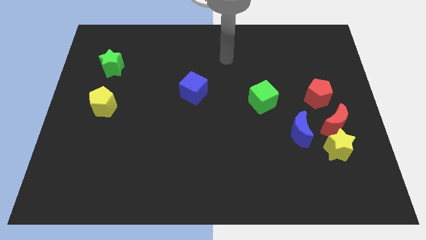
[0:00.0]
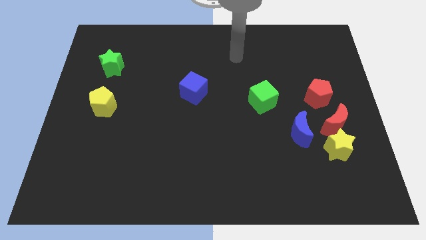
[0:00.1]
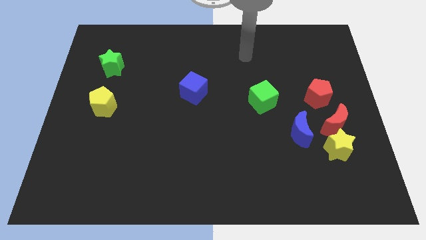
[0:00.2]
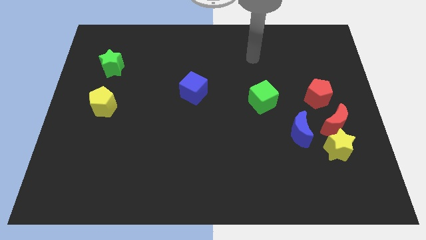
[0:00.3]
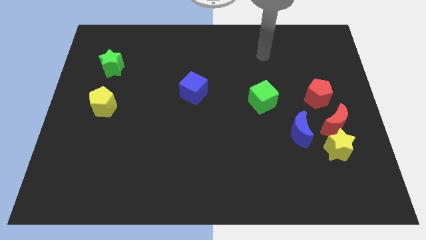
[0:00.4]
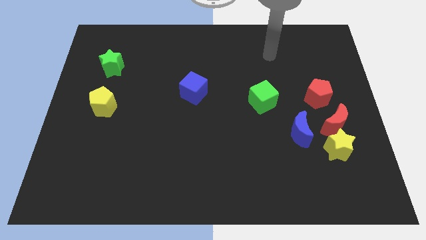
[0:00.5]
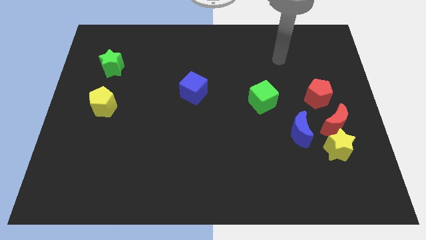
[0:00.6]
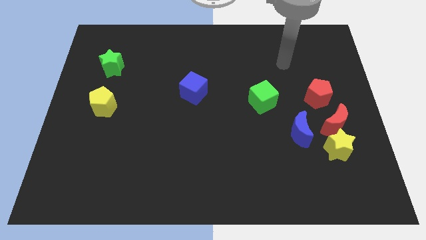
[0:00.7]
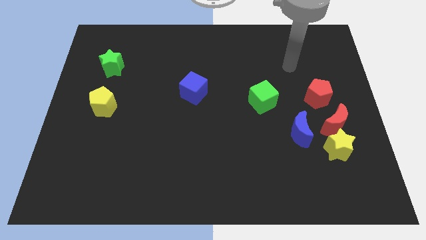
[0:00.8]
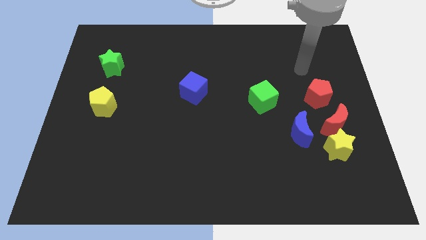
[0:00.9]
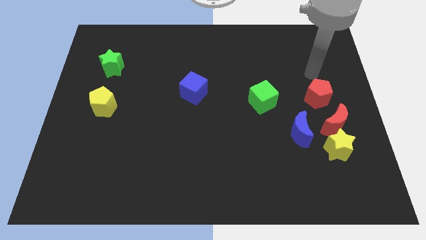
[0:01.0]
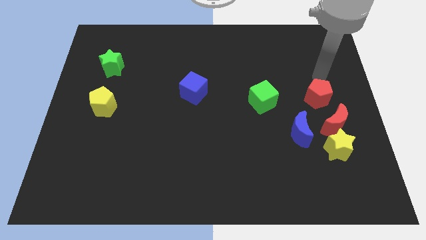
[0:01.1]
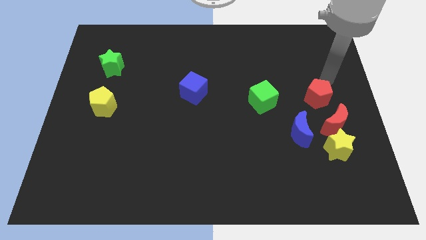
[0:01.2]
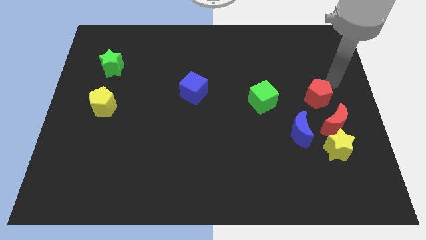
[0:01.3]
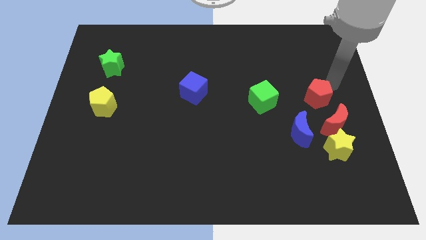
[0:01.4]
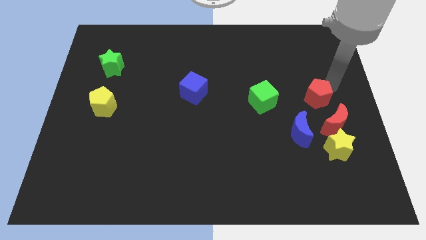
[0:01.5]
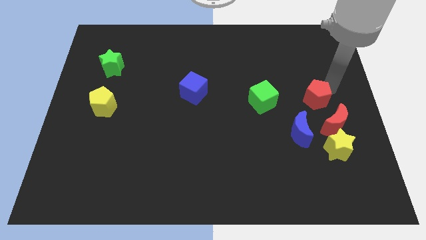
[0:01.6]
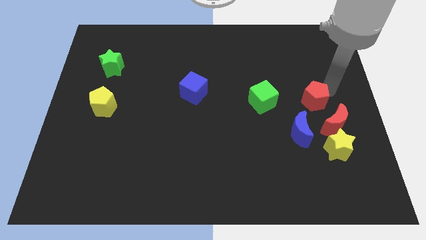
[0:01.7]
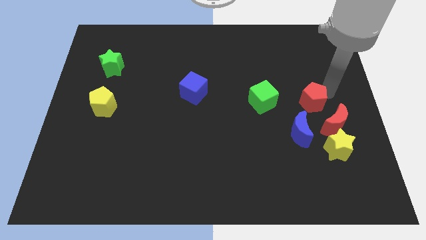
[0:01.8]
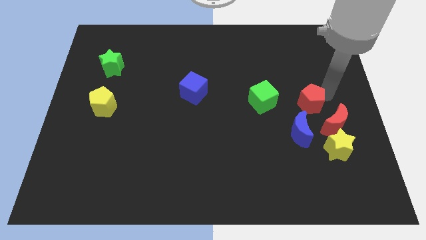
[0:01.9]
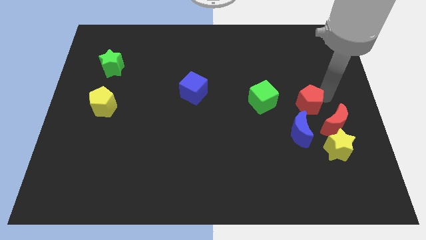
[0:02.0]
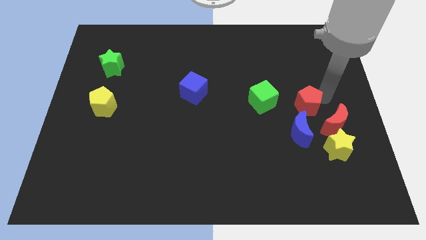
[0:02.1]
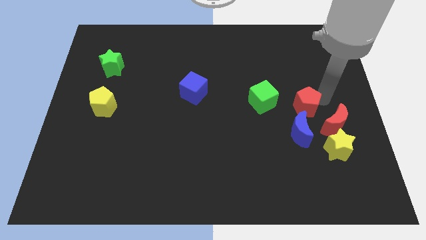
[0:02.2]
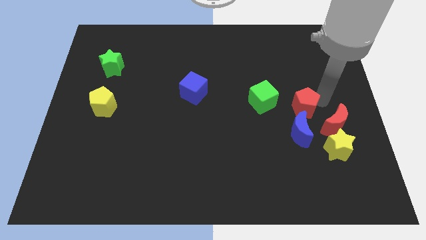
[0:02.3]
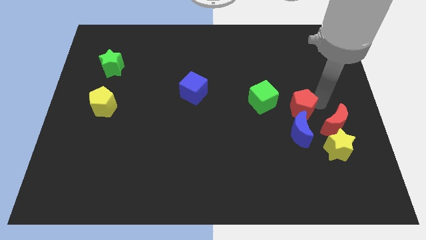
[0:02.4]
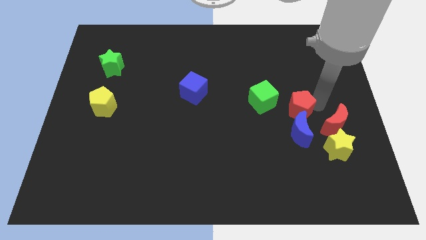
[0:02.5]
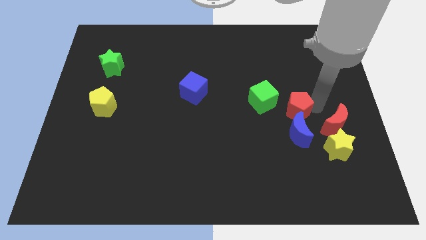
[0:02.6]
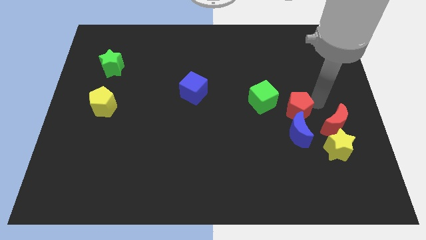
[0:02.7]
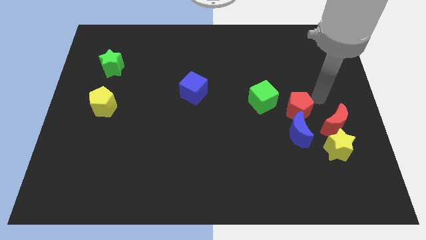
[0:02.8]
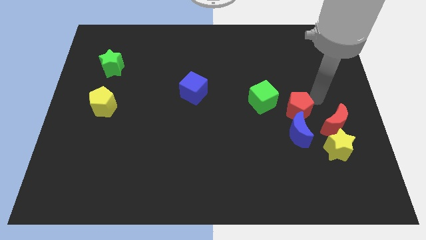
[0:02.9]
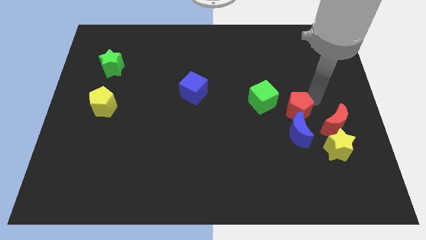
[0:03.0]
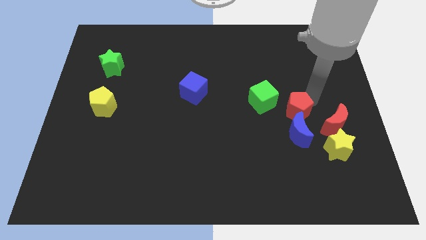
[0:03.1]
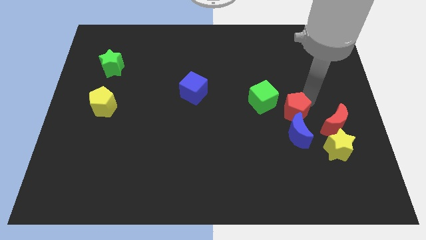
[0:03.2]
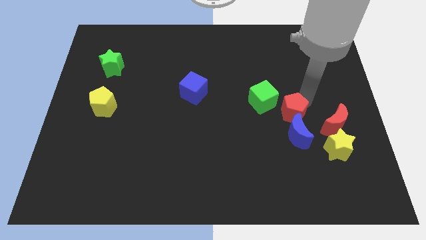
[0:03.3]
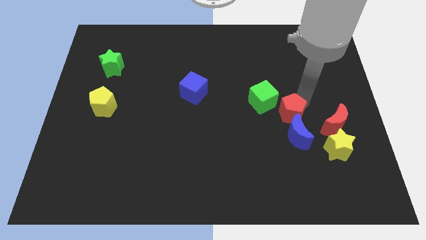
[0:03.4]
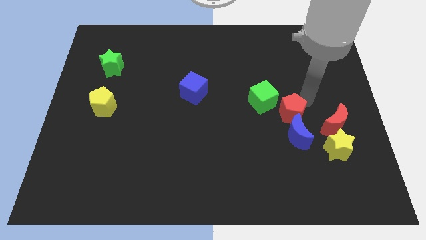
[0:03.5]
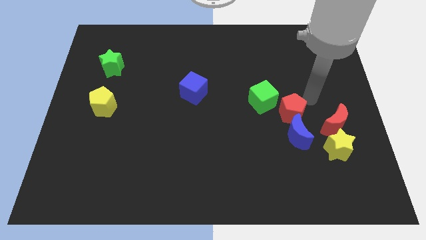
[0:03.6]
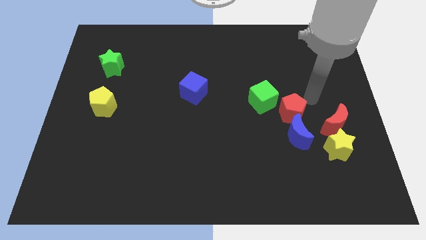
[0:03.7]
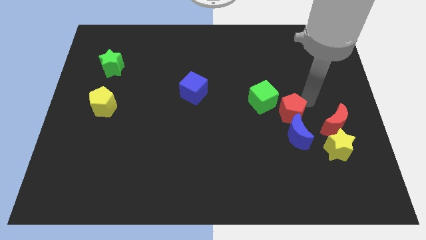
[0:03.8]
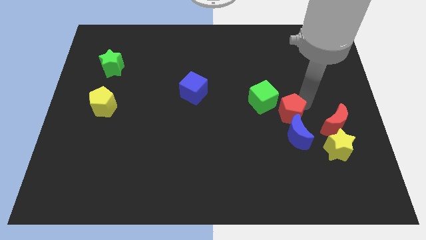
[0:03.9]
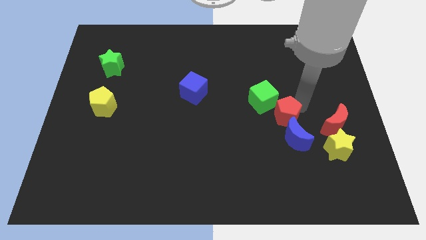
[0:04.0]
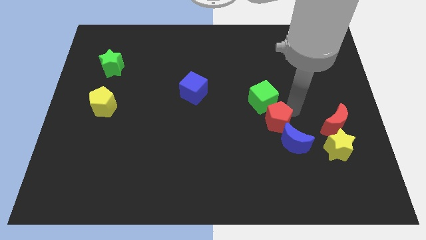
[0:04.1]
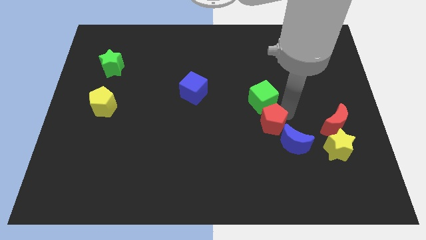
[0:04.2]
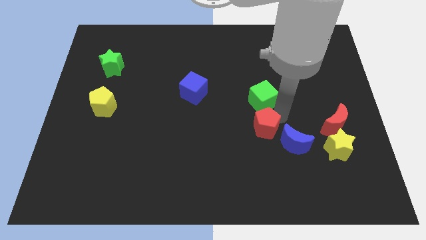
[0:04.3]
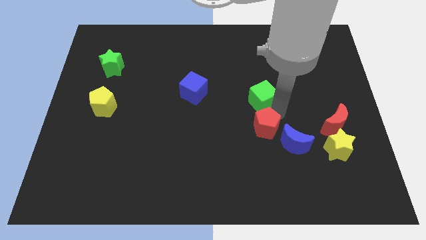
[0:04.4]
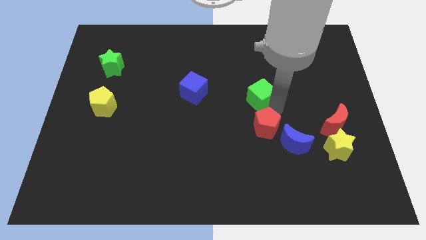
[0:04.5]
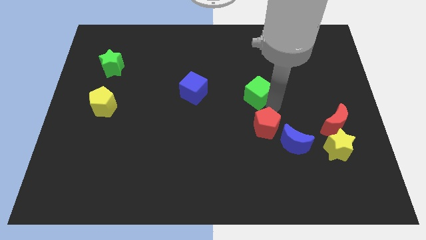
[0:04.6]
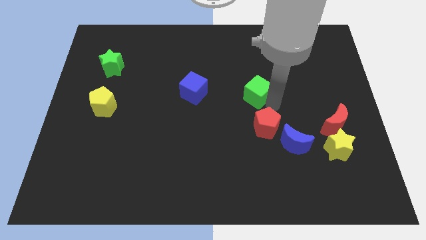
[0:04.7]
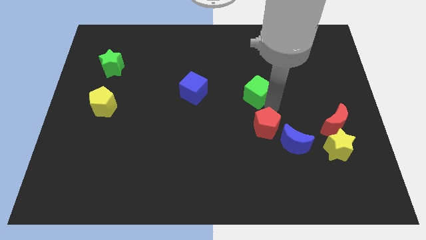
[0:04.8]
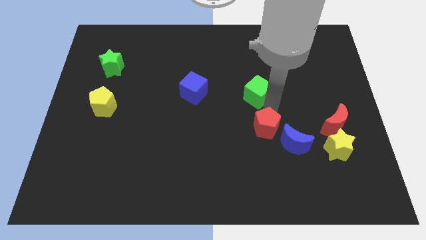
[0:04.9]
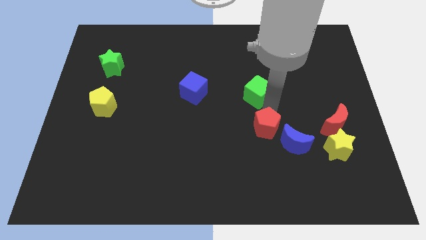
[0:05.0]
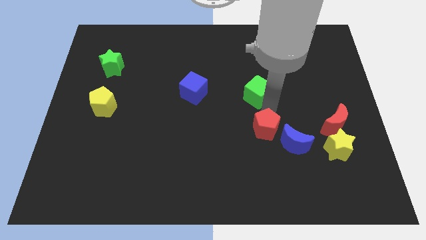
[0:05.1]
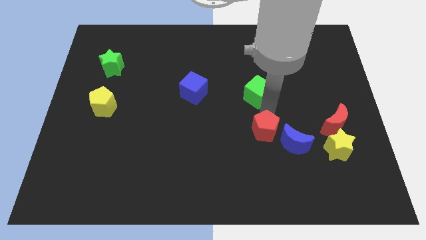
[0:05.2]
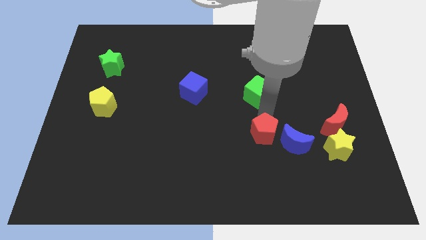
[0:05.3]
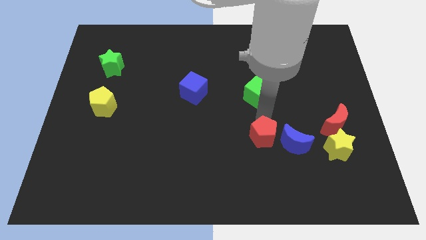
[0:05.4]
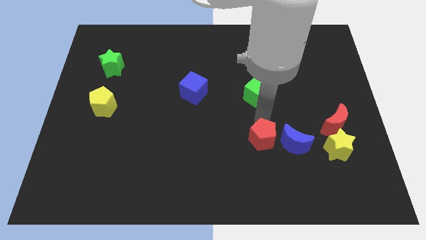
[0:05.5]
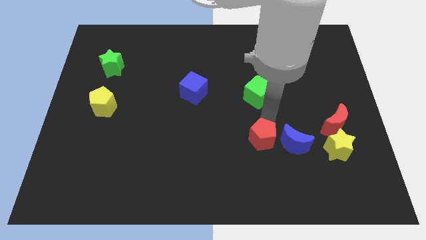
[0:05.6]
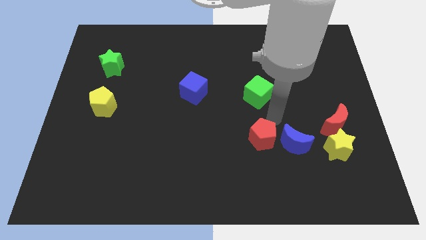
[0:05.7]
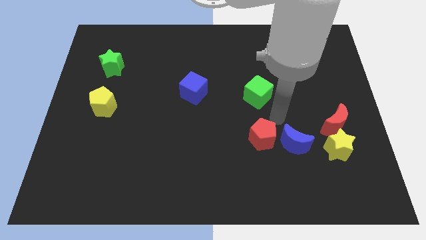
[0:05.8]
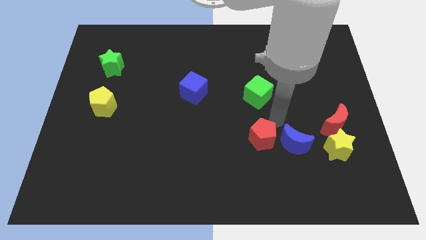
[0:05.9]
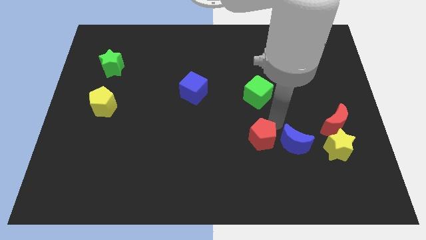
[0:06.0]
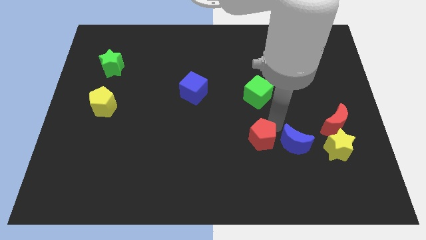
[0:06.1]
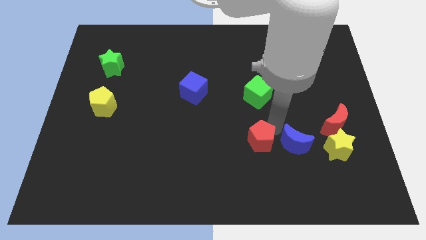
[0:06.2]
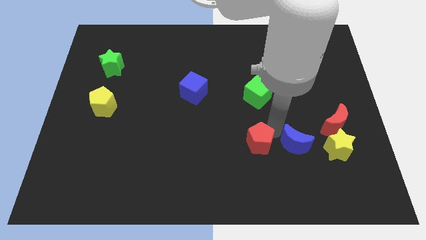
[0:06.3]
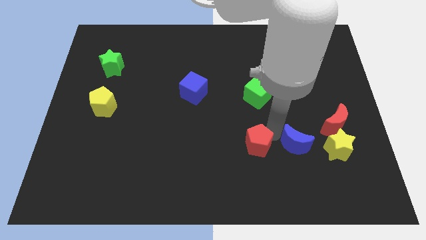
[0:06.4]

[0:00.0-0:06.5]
move the red pentagon downwards and then left

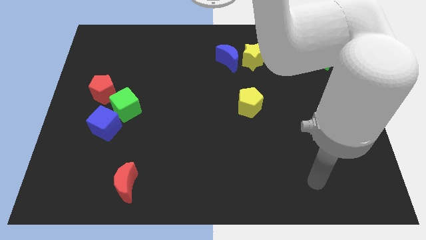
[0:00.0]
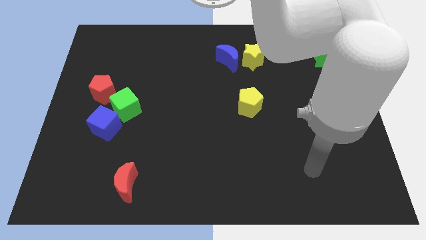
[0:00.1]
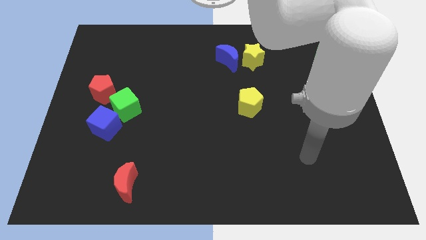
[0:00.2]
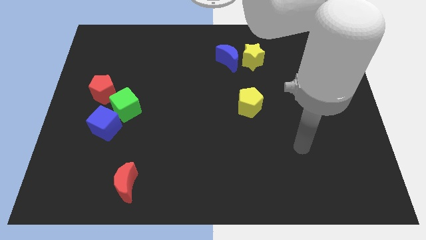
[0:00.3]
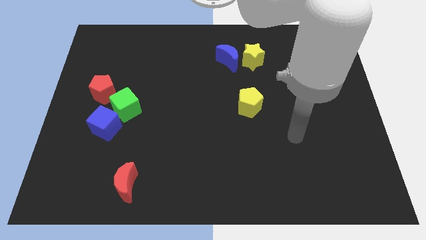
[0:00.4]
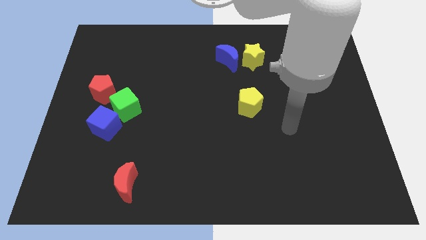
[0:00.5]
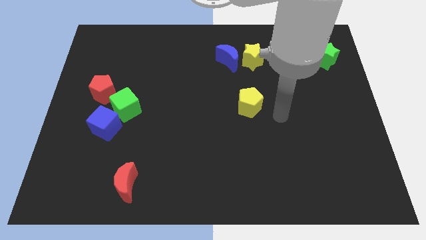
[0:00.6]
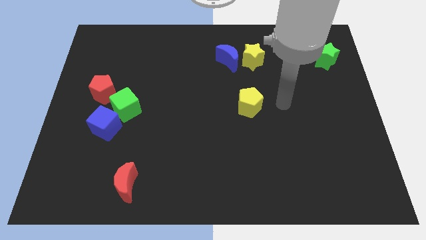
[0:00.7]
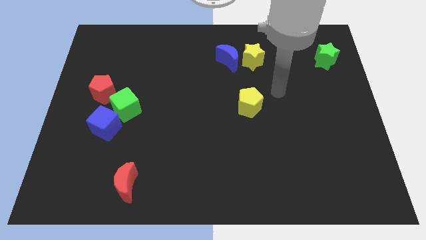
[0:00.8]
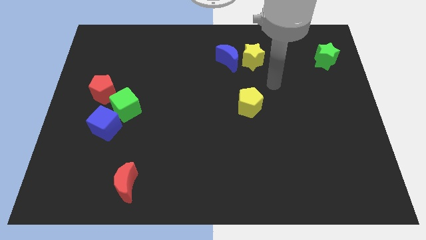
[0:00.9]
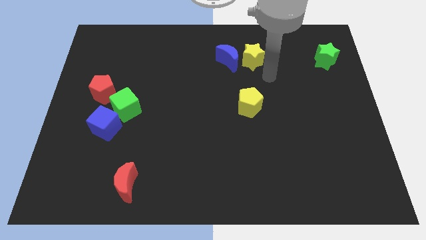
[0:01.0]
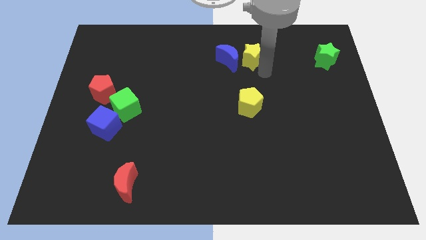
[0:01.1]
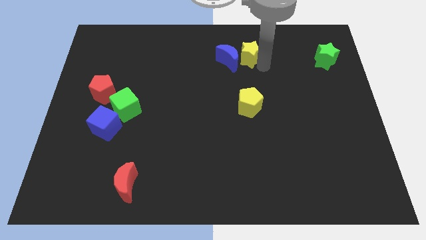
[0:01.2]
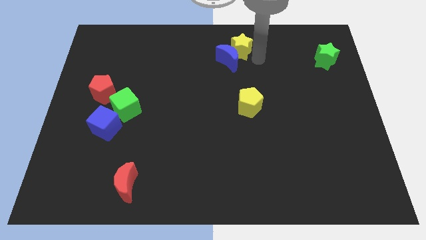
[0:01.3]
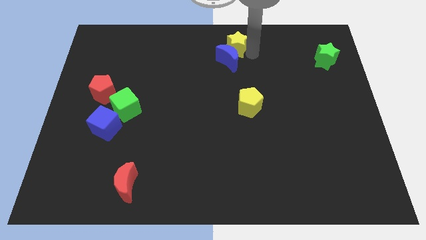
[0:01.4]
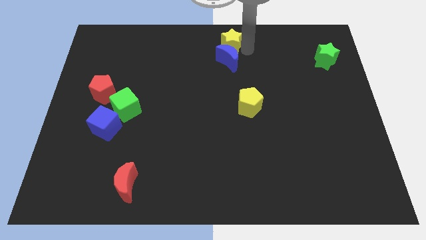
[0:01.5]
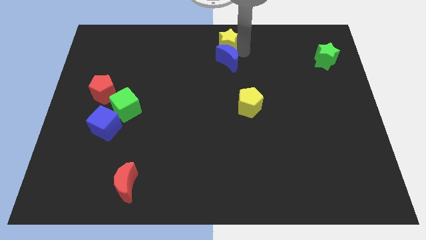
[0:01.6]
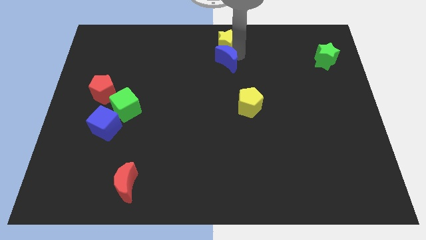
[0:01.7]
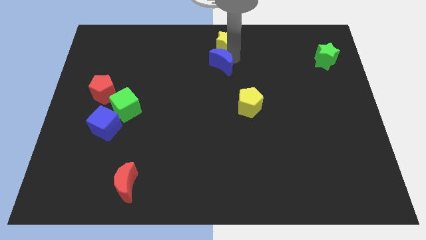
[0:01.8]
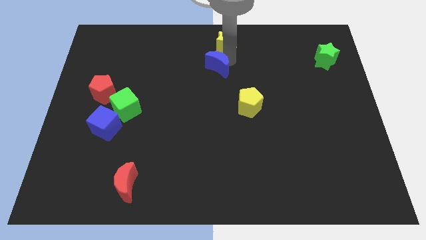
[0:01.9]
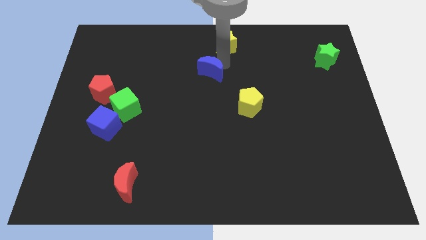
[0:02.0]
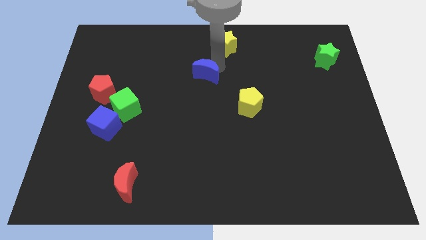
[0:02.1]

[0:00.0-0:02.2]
slide the blue moon slightly downwards and left diagonally
